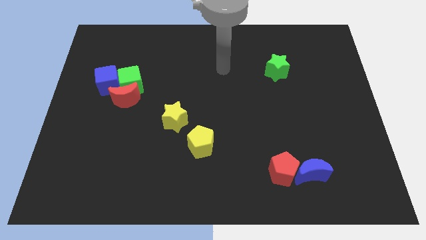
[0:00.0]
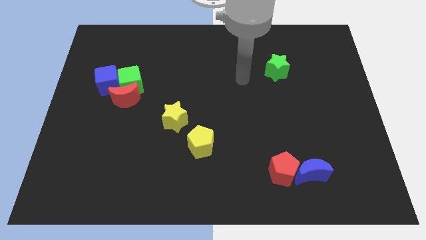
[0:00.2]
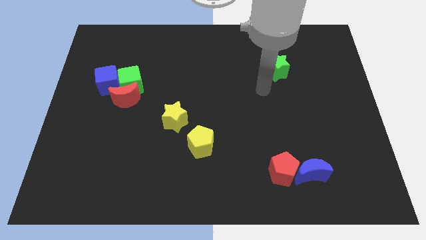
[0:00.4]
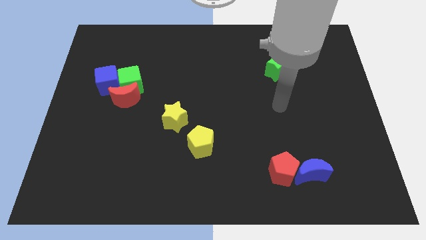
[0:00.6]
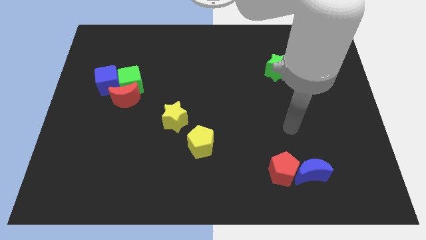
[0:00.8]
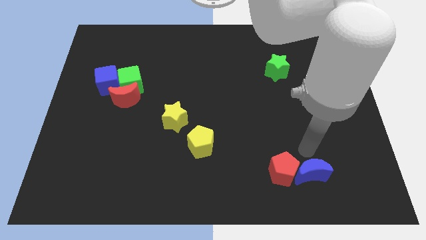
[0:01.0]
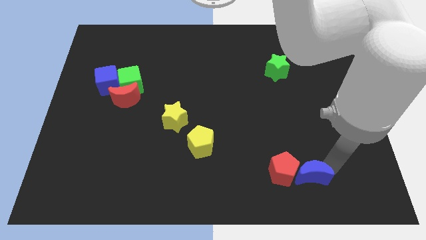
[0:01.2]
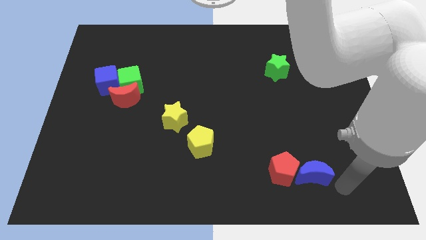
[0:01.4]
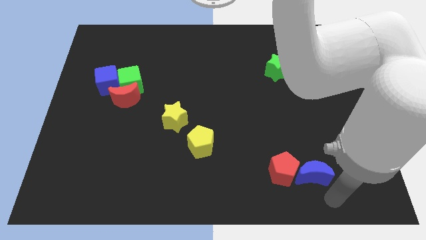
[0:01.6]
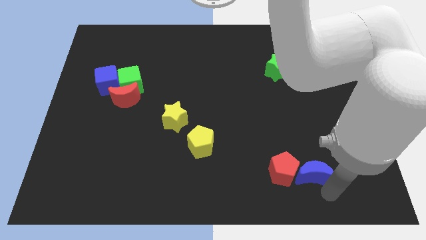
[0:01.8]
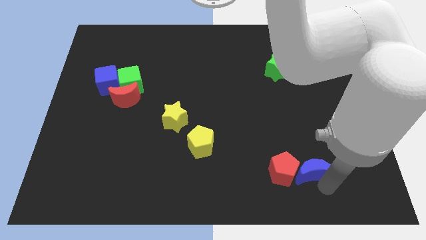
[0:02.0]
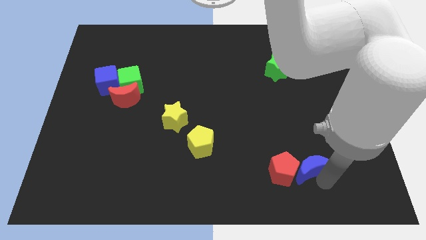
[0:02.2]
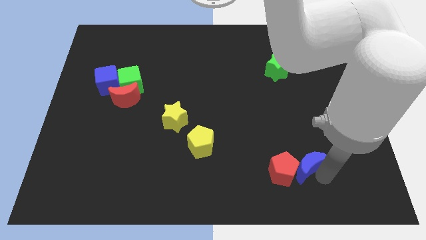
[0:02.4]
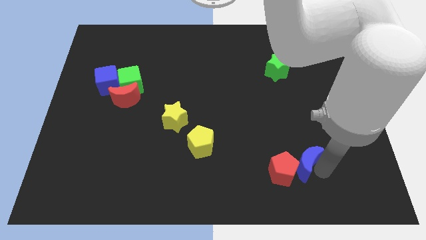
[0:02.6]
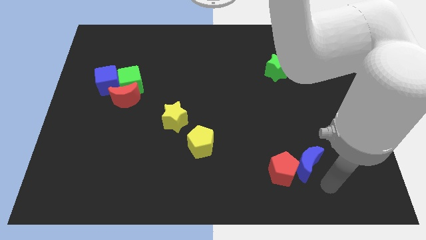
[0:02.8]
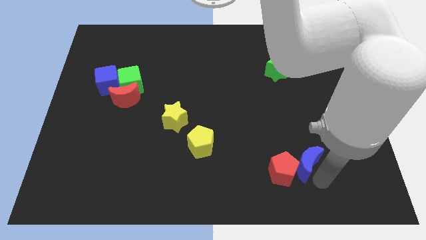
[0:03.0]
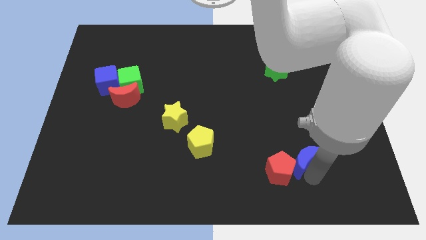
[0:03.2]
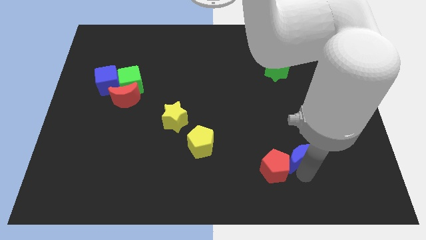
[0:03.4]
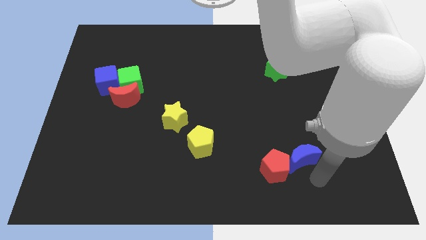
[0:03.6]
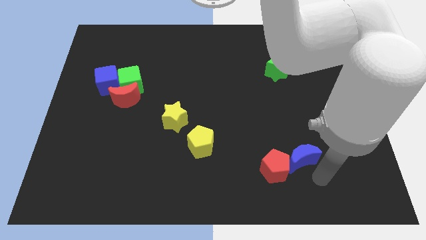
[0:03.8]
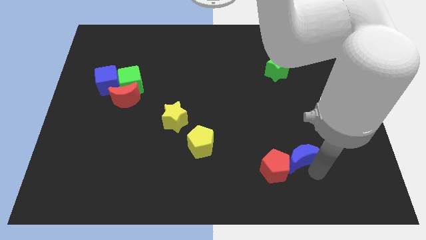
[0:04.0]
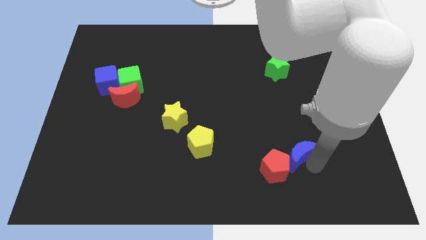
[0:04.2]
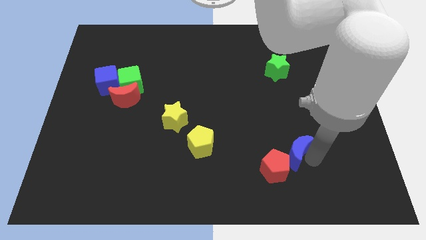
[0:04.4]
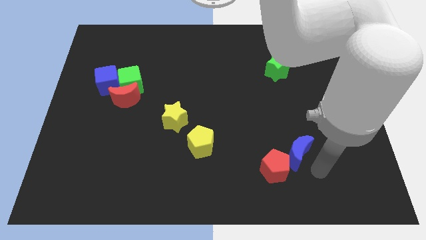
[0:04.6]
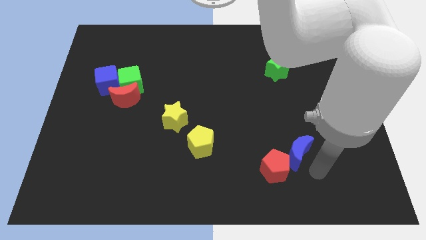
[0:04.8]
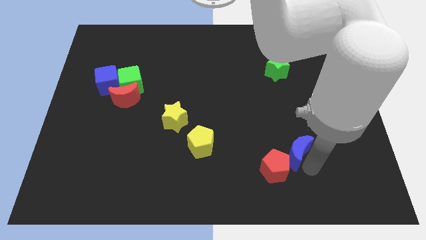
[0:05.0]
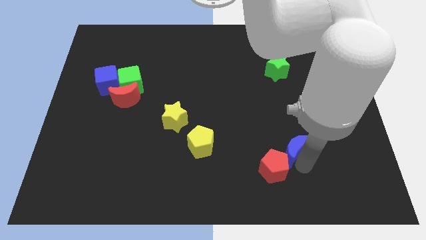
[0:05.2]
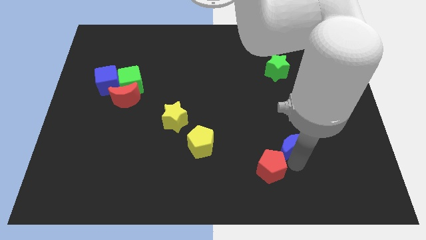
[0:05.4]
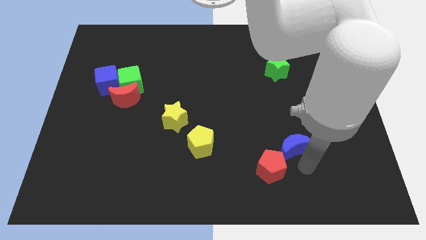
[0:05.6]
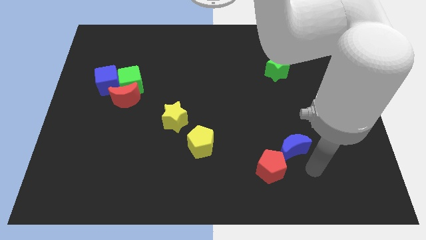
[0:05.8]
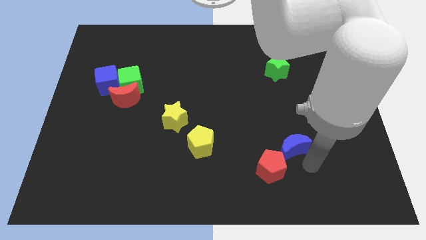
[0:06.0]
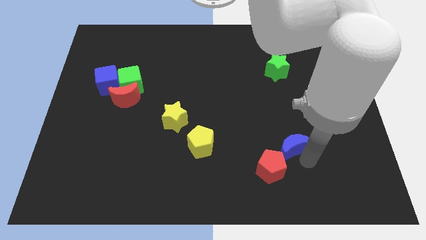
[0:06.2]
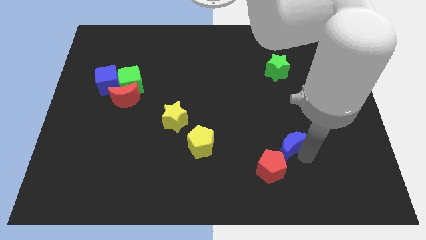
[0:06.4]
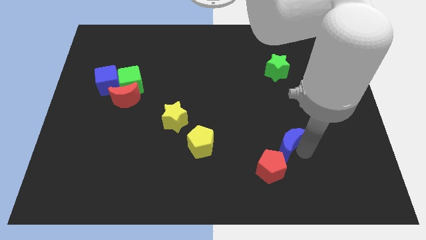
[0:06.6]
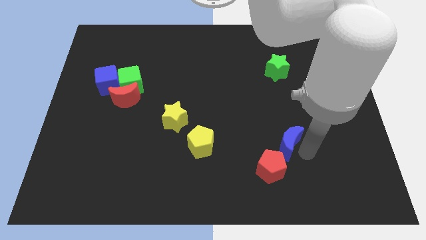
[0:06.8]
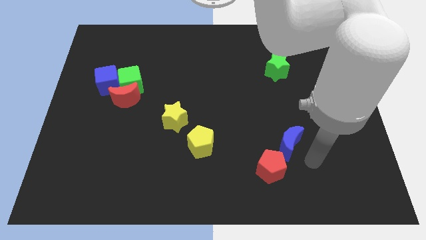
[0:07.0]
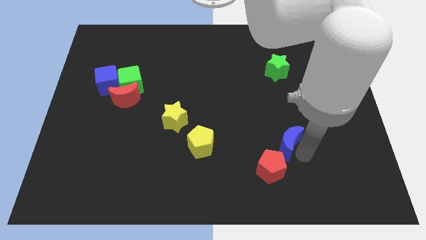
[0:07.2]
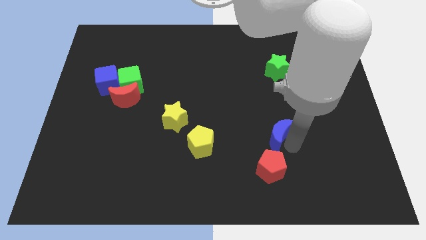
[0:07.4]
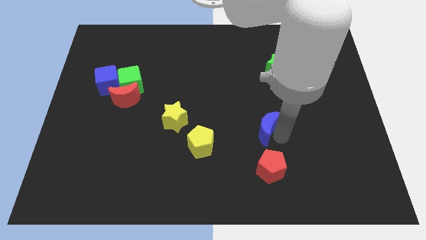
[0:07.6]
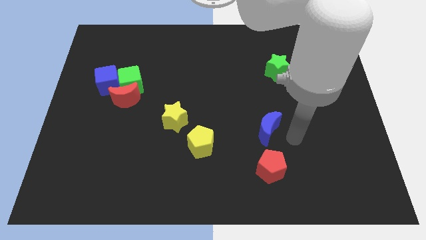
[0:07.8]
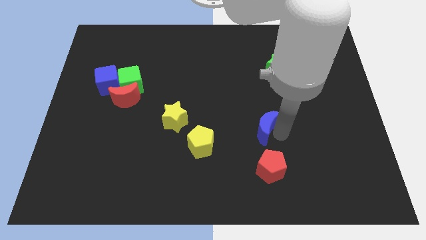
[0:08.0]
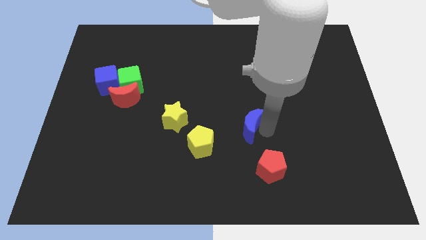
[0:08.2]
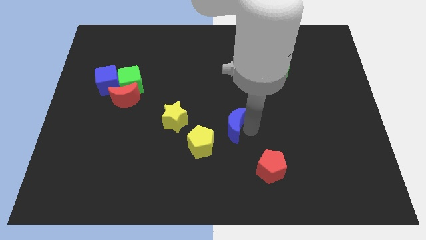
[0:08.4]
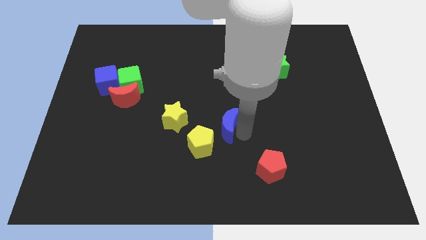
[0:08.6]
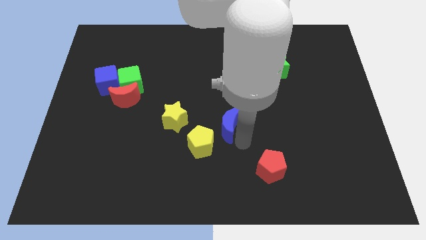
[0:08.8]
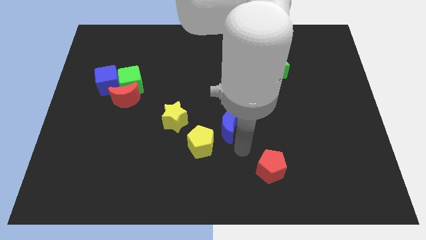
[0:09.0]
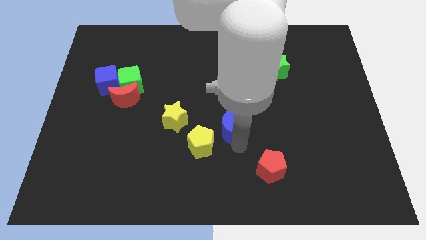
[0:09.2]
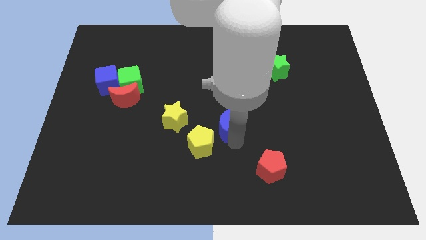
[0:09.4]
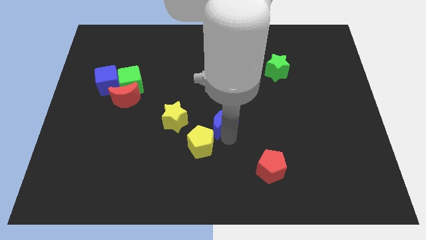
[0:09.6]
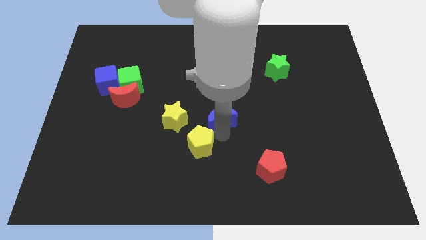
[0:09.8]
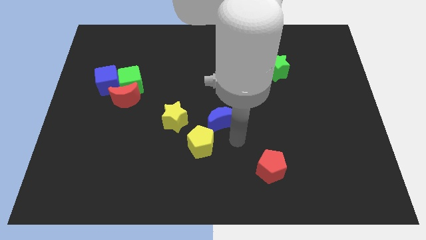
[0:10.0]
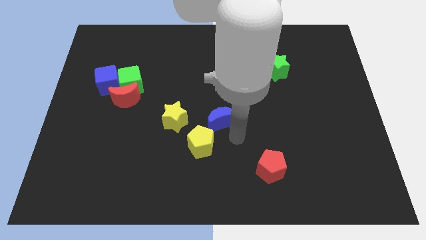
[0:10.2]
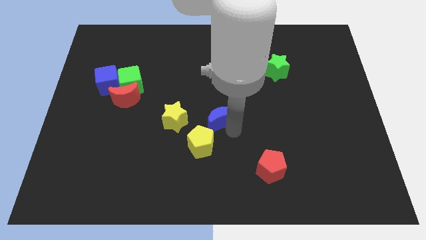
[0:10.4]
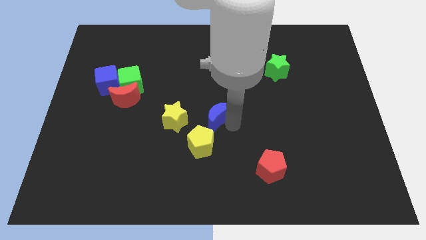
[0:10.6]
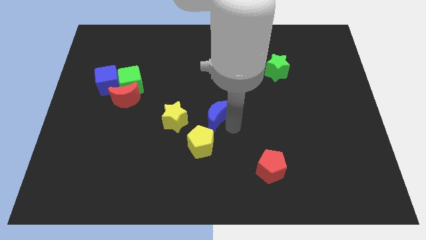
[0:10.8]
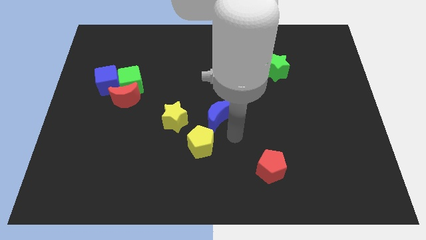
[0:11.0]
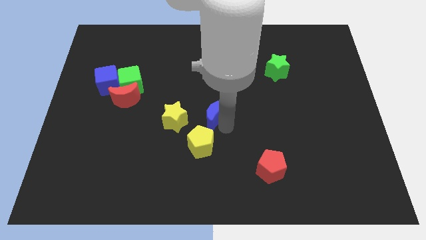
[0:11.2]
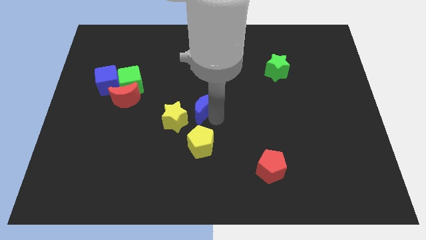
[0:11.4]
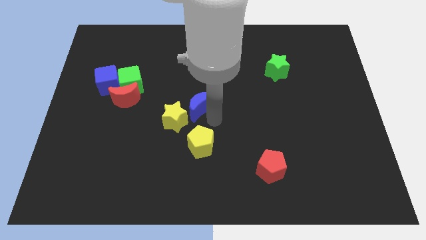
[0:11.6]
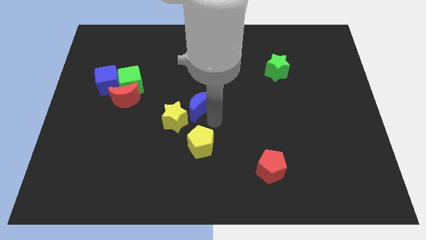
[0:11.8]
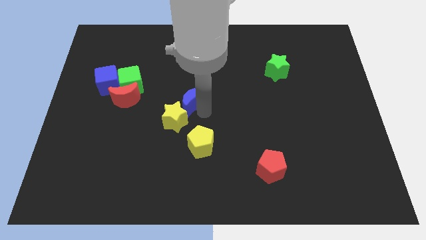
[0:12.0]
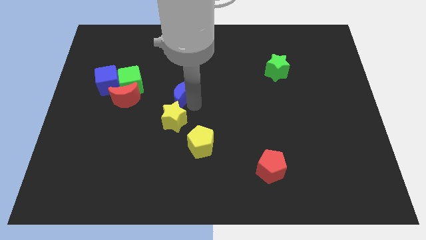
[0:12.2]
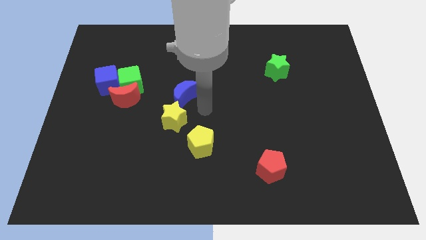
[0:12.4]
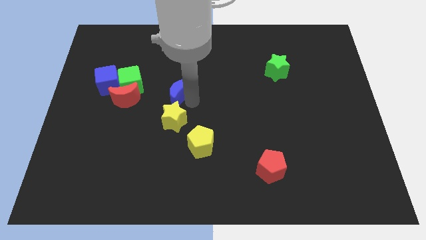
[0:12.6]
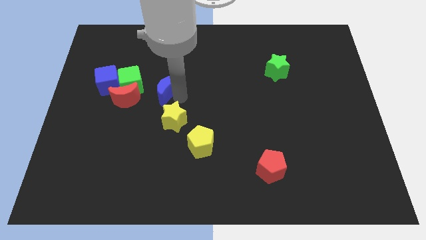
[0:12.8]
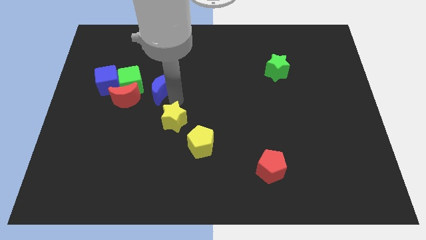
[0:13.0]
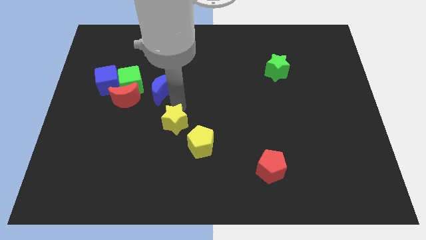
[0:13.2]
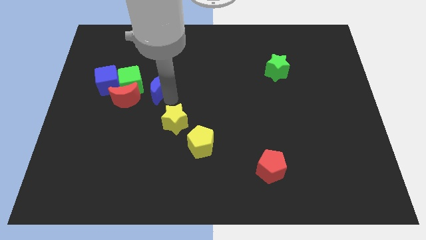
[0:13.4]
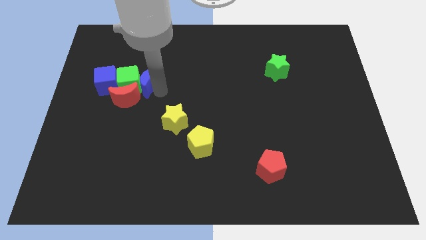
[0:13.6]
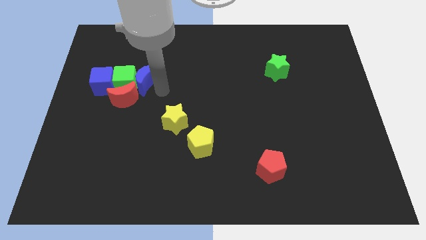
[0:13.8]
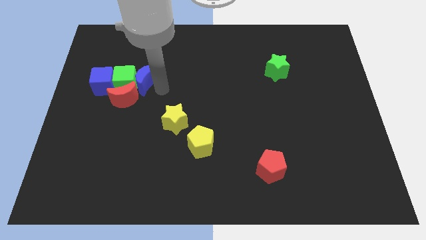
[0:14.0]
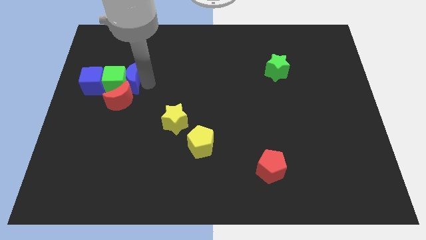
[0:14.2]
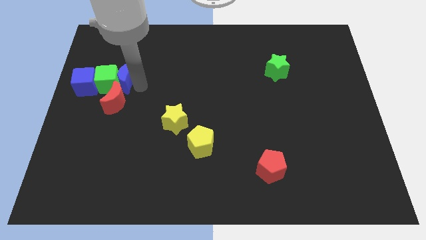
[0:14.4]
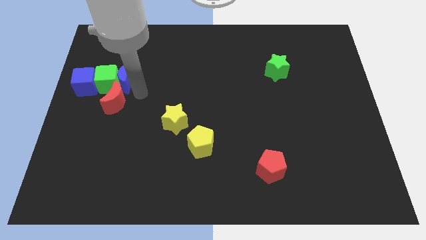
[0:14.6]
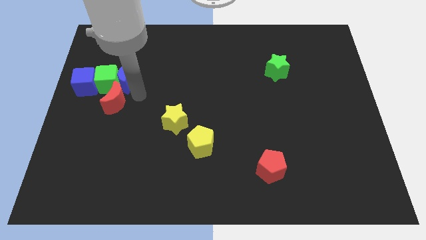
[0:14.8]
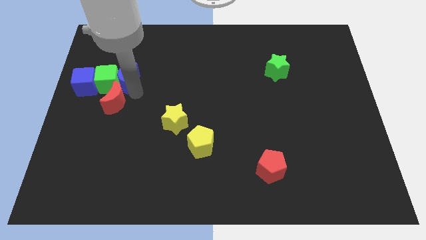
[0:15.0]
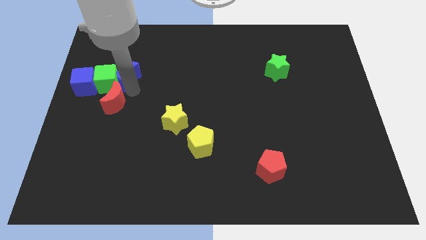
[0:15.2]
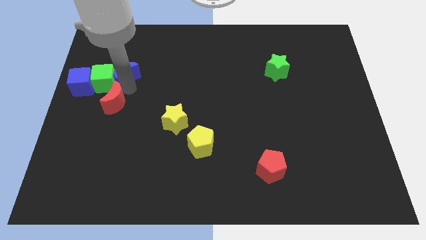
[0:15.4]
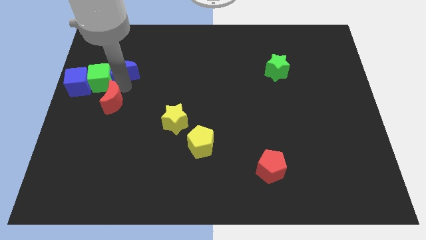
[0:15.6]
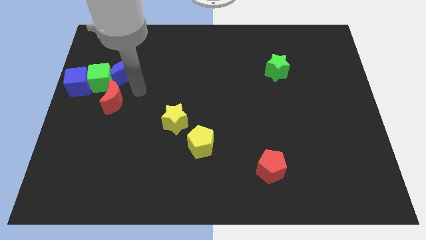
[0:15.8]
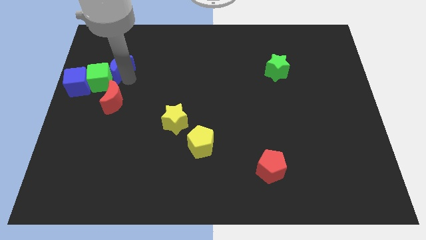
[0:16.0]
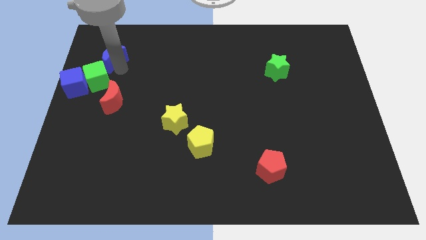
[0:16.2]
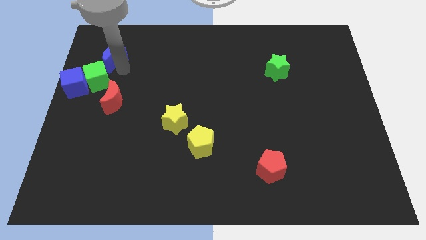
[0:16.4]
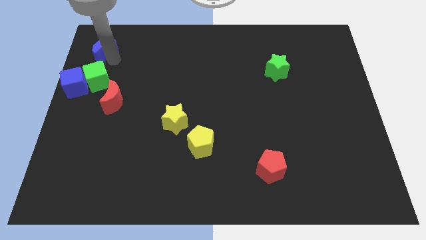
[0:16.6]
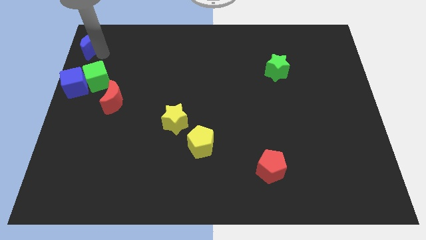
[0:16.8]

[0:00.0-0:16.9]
move the blue moon to the top left of the board
